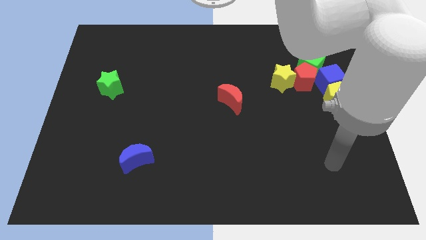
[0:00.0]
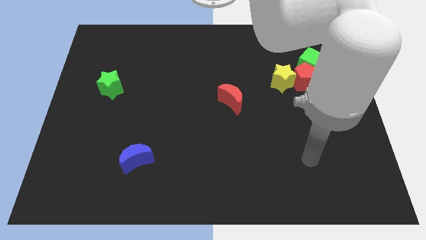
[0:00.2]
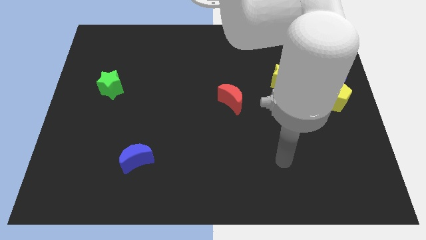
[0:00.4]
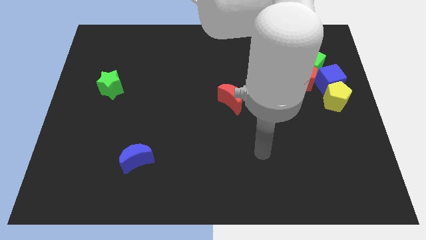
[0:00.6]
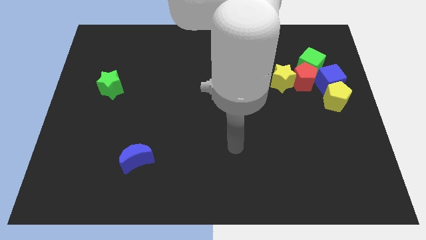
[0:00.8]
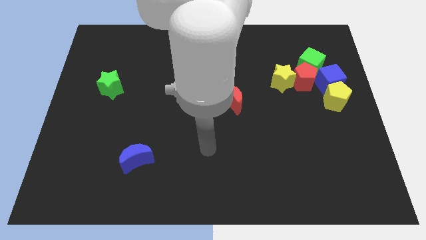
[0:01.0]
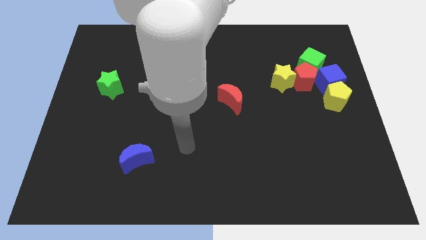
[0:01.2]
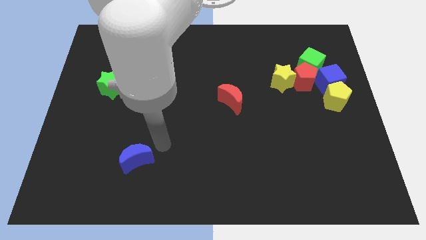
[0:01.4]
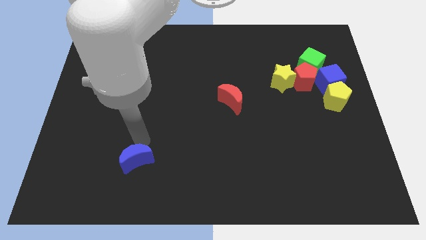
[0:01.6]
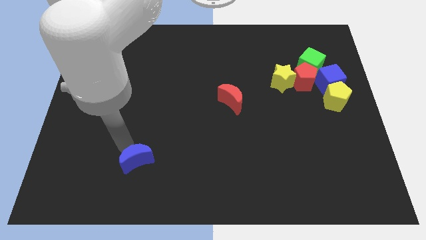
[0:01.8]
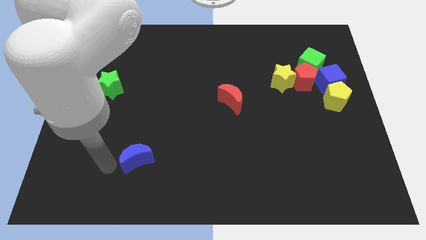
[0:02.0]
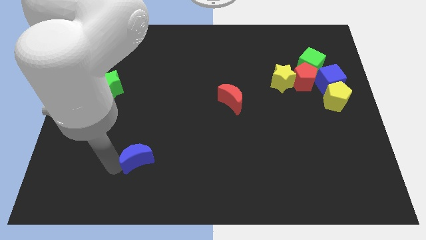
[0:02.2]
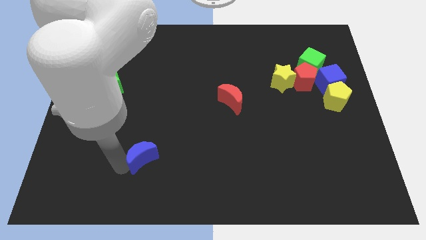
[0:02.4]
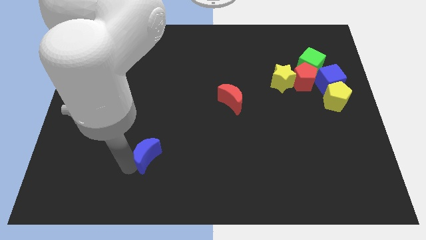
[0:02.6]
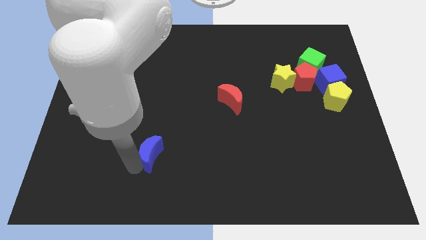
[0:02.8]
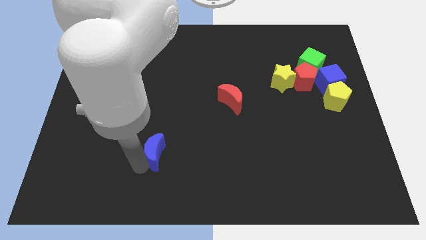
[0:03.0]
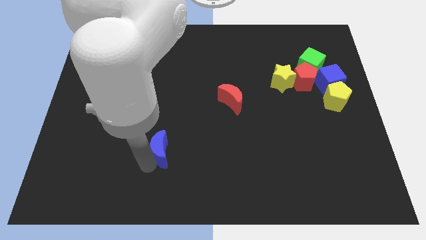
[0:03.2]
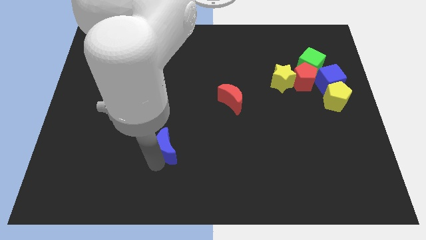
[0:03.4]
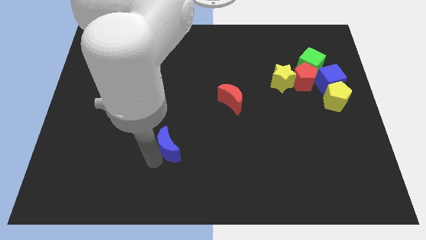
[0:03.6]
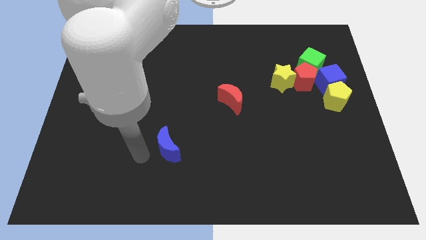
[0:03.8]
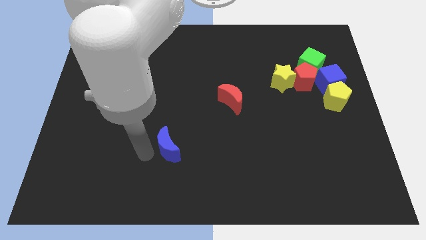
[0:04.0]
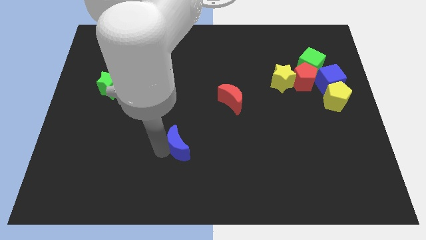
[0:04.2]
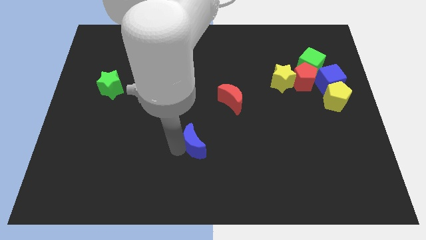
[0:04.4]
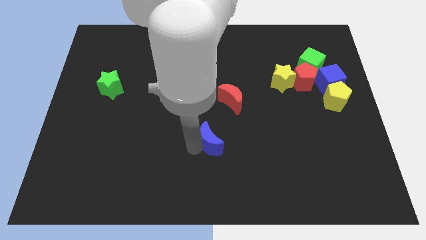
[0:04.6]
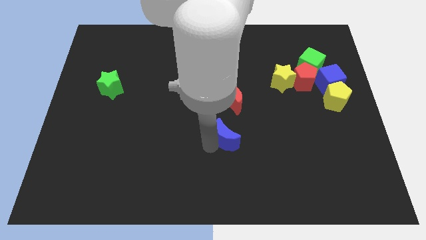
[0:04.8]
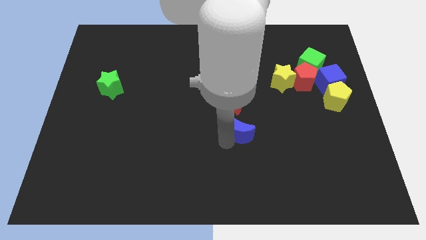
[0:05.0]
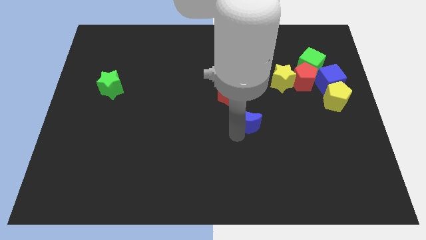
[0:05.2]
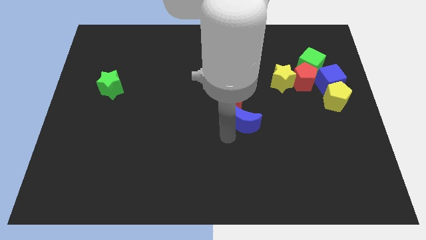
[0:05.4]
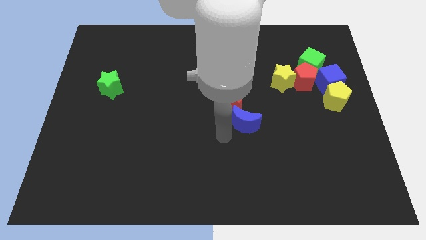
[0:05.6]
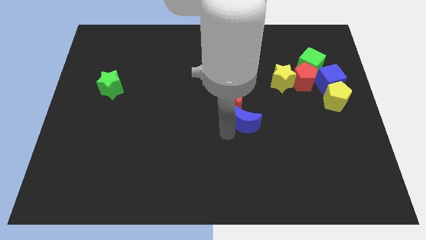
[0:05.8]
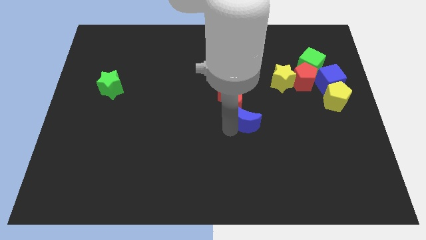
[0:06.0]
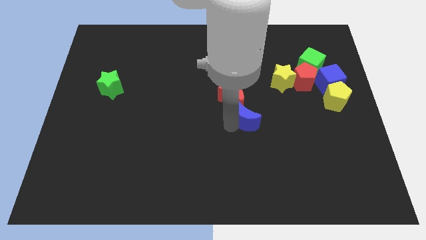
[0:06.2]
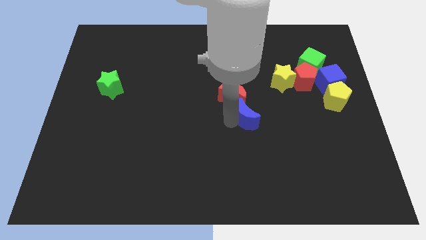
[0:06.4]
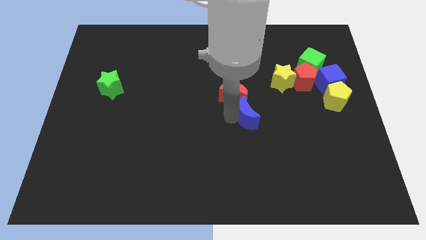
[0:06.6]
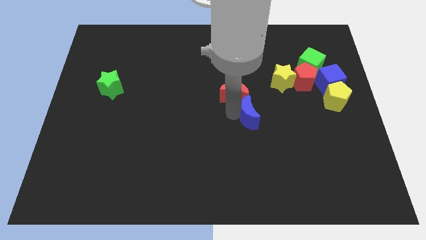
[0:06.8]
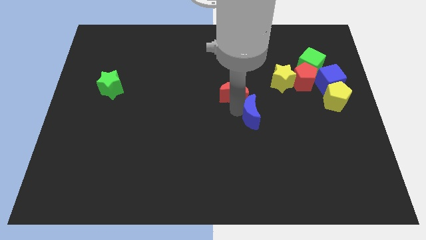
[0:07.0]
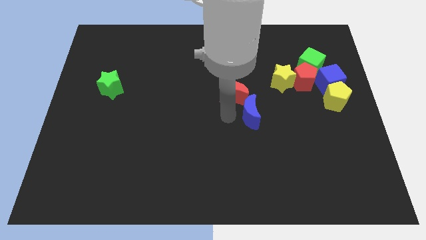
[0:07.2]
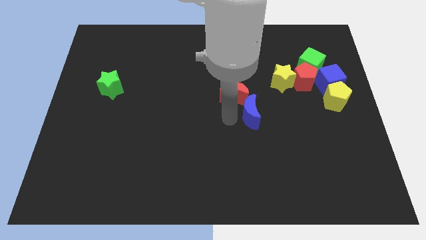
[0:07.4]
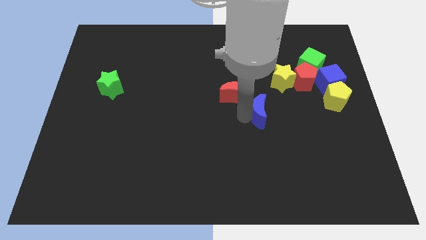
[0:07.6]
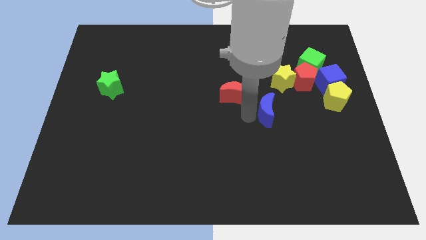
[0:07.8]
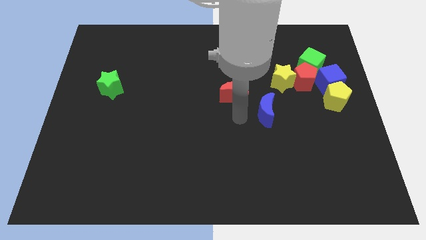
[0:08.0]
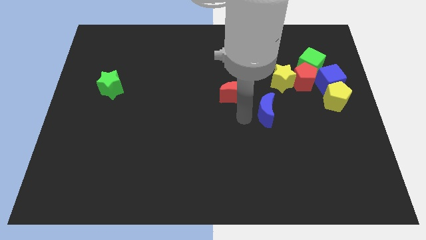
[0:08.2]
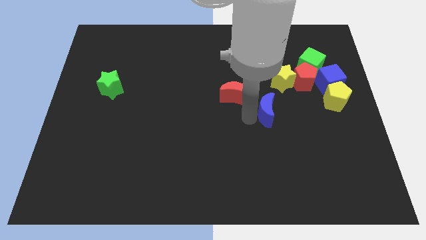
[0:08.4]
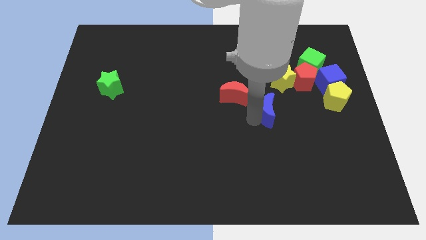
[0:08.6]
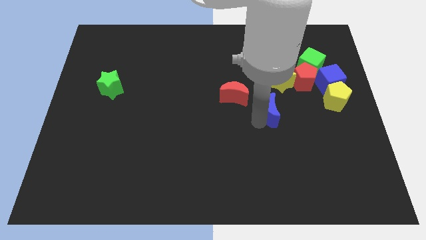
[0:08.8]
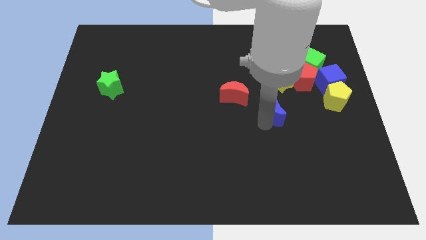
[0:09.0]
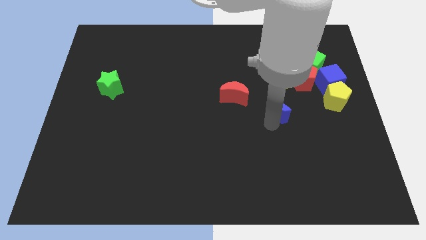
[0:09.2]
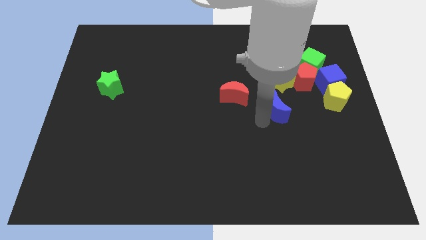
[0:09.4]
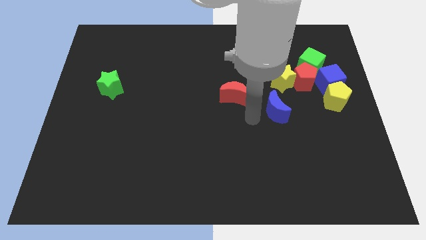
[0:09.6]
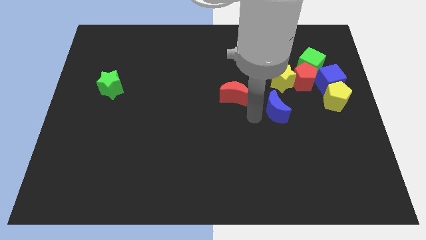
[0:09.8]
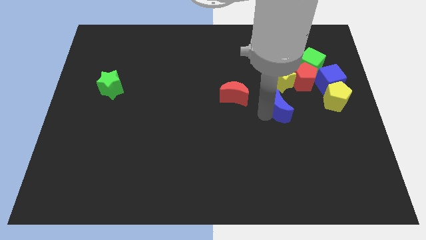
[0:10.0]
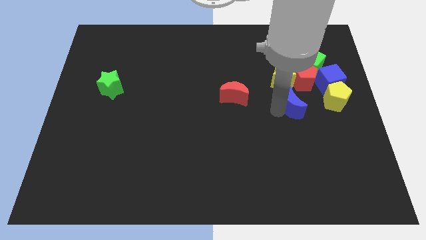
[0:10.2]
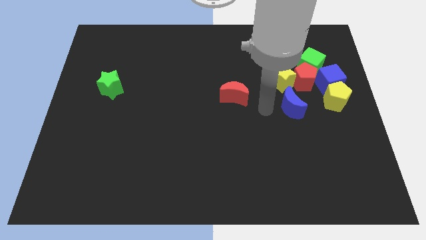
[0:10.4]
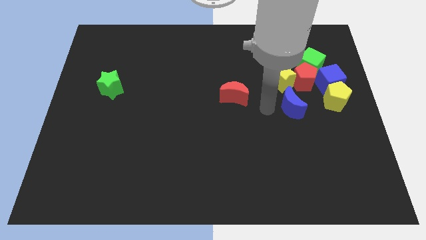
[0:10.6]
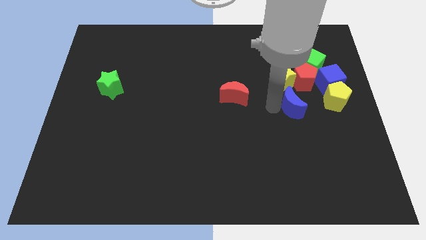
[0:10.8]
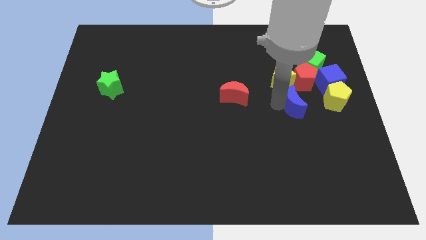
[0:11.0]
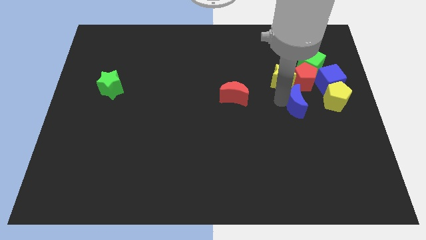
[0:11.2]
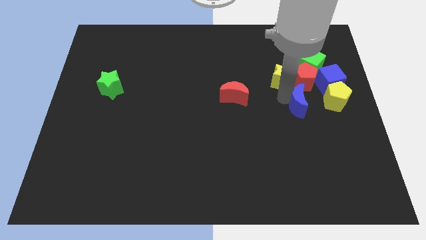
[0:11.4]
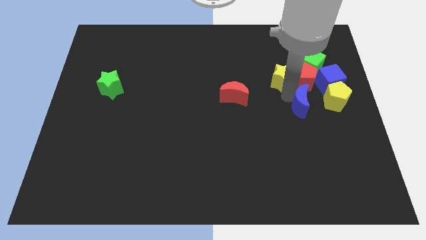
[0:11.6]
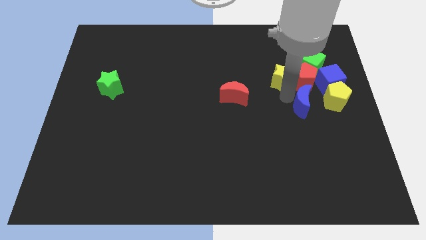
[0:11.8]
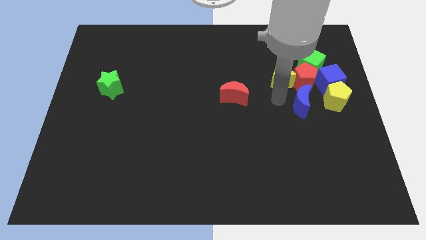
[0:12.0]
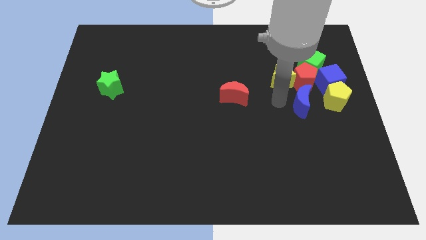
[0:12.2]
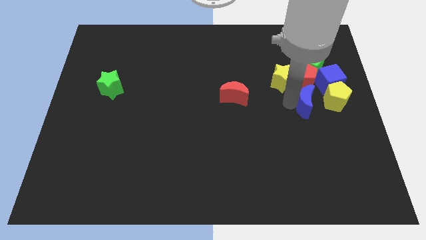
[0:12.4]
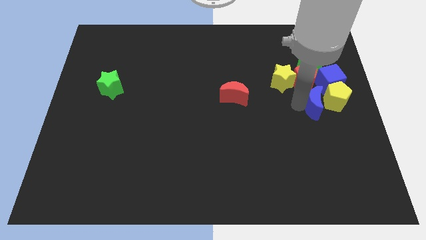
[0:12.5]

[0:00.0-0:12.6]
put the blue moon to the yellow pentagon

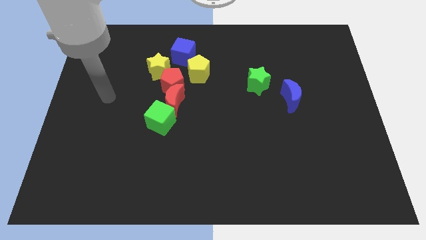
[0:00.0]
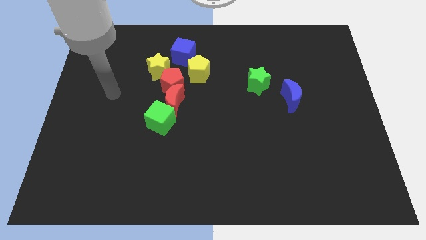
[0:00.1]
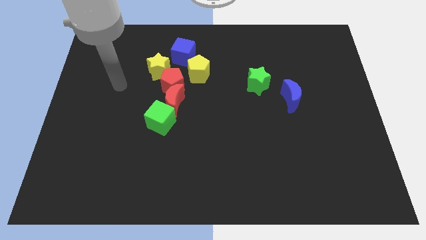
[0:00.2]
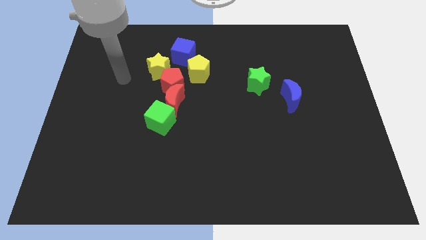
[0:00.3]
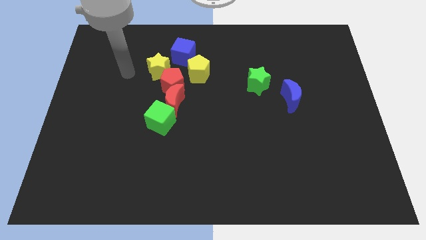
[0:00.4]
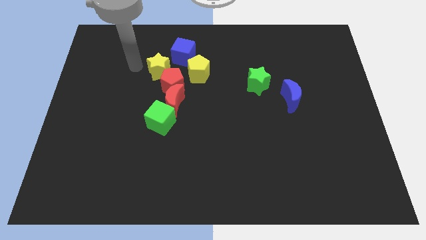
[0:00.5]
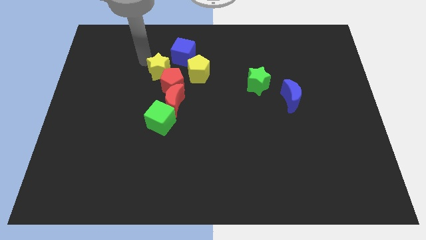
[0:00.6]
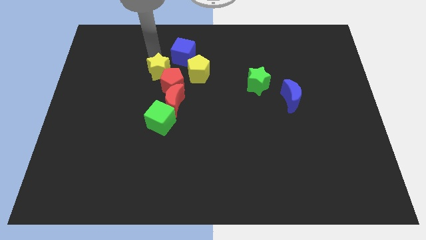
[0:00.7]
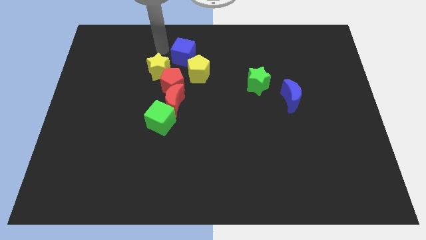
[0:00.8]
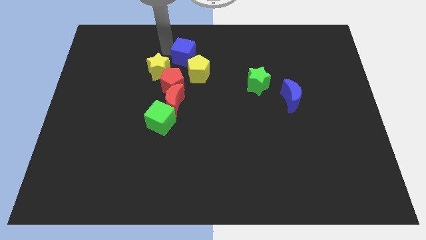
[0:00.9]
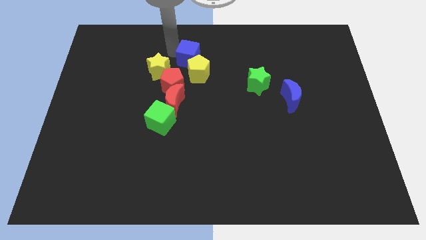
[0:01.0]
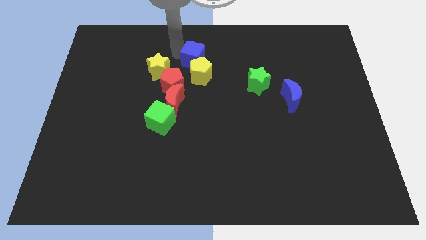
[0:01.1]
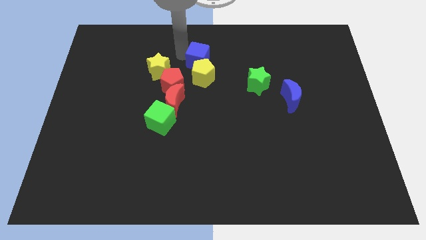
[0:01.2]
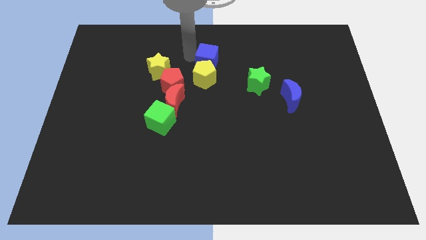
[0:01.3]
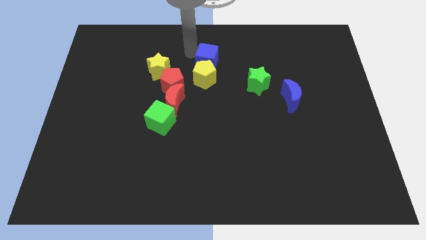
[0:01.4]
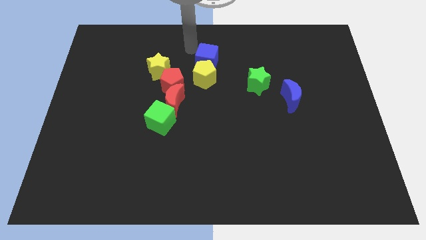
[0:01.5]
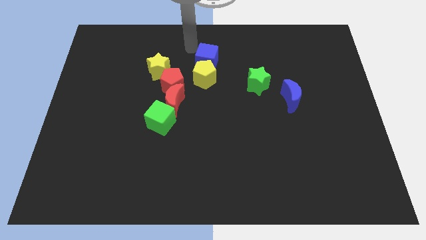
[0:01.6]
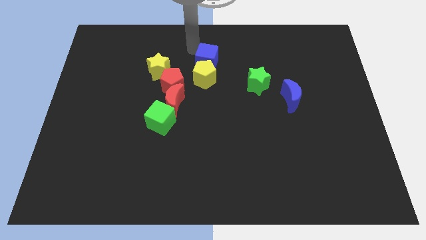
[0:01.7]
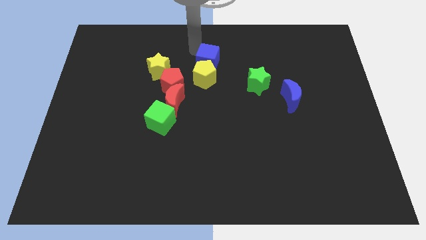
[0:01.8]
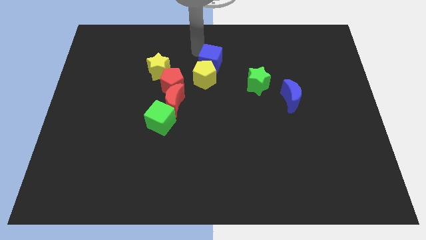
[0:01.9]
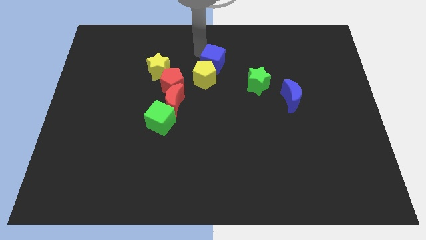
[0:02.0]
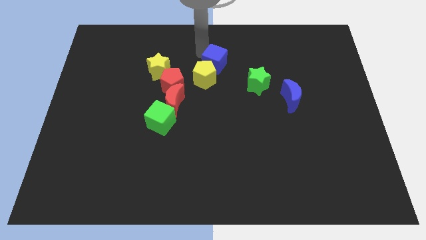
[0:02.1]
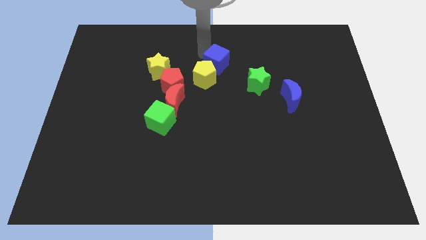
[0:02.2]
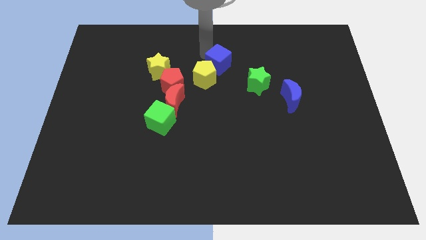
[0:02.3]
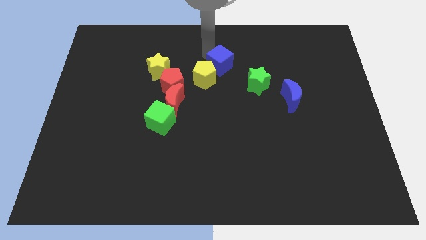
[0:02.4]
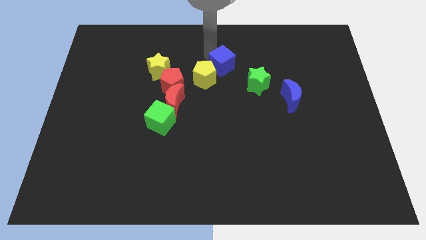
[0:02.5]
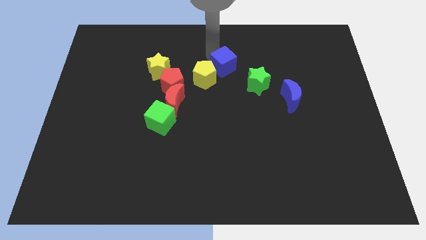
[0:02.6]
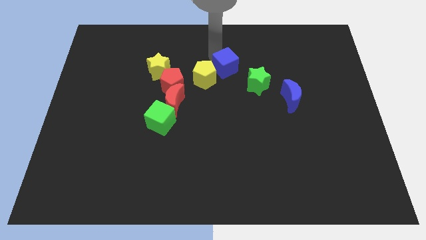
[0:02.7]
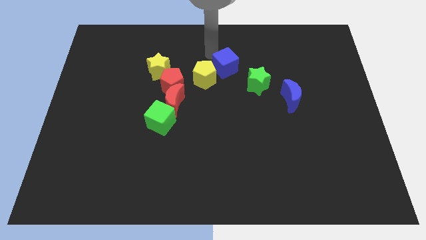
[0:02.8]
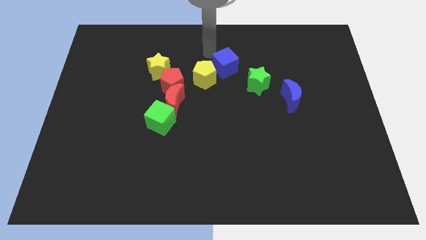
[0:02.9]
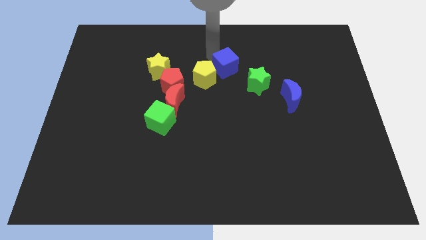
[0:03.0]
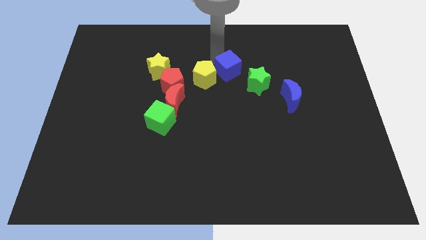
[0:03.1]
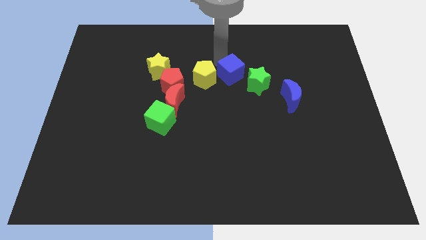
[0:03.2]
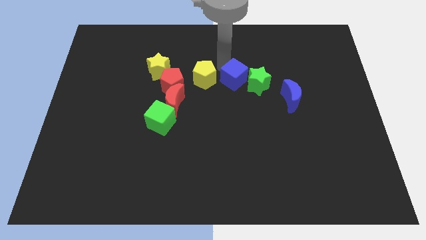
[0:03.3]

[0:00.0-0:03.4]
move the blue cube to the green star
